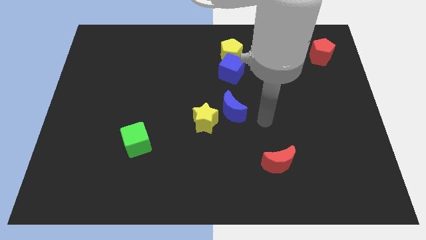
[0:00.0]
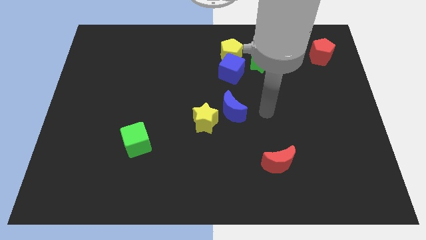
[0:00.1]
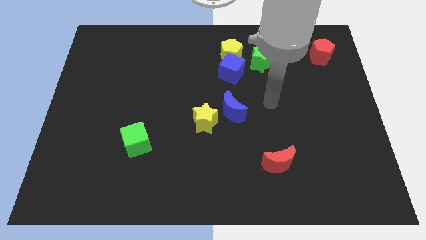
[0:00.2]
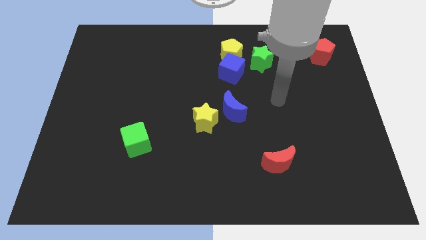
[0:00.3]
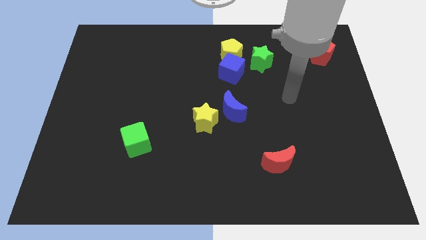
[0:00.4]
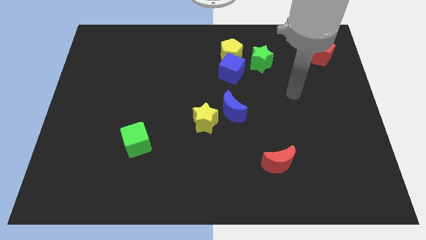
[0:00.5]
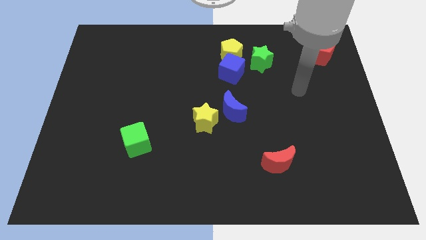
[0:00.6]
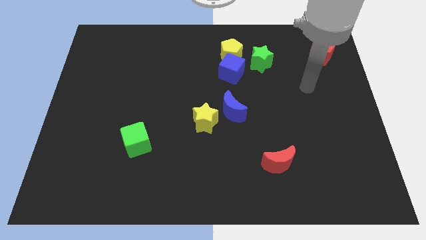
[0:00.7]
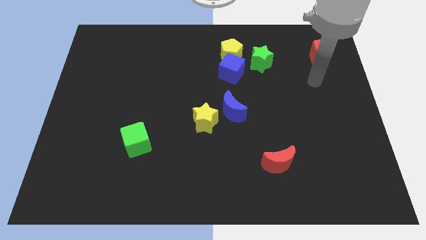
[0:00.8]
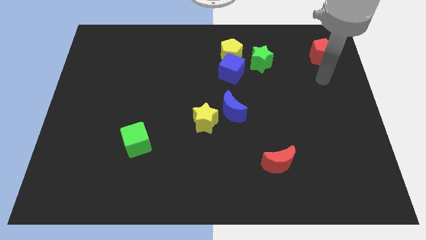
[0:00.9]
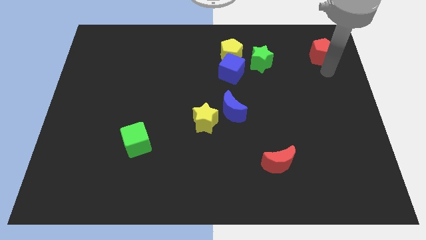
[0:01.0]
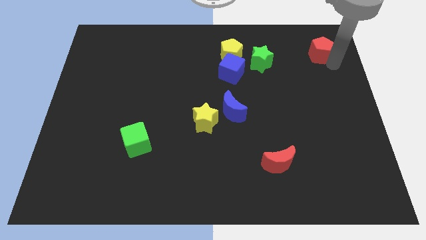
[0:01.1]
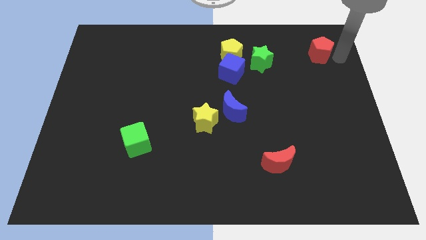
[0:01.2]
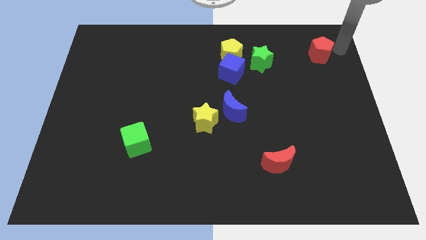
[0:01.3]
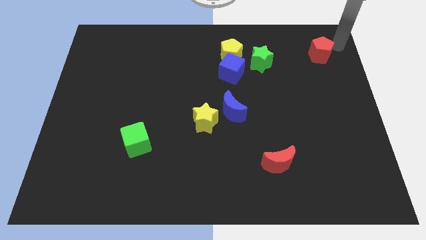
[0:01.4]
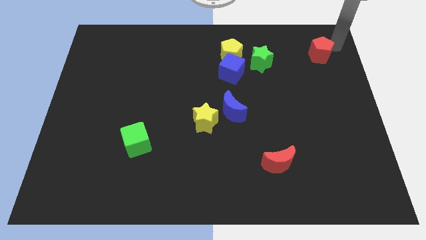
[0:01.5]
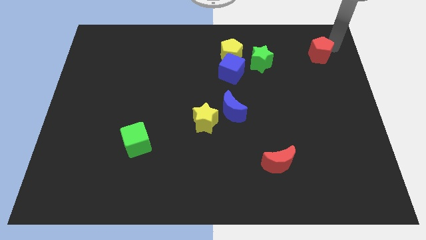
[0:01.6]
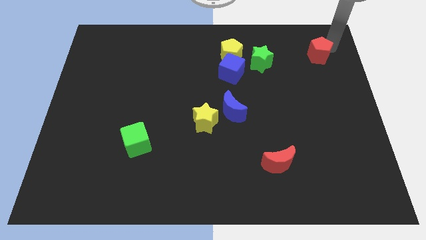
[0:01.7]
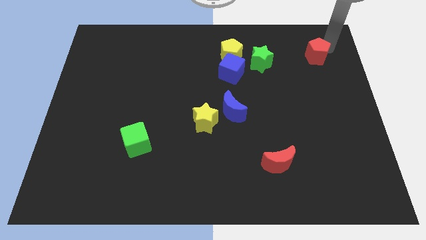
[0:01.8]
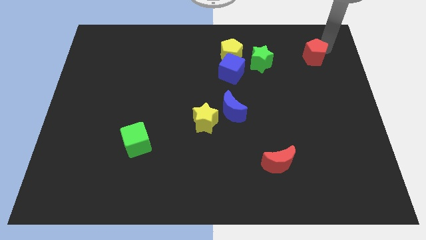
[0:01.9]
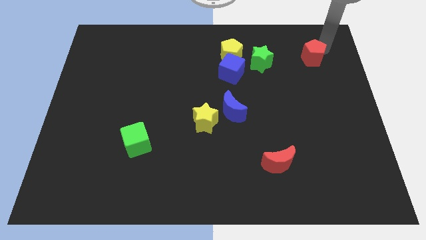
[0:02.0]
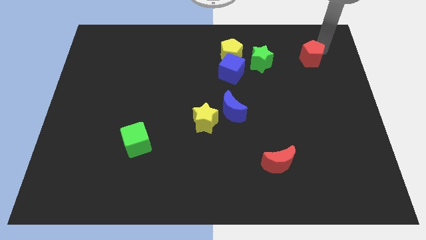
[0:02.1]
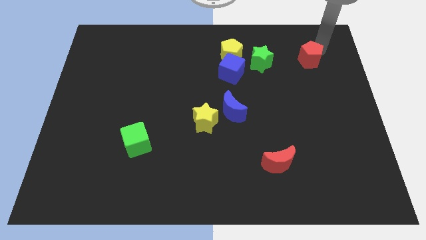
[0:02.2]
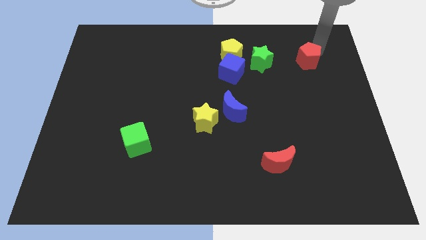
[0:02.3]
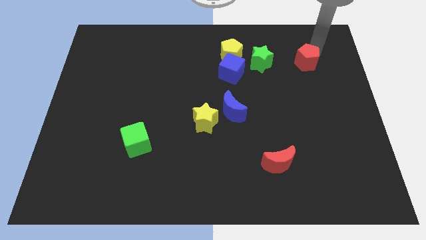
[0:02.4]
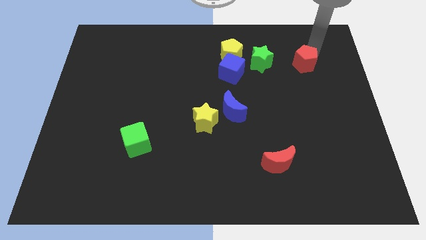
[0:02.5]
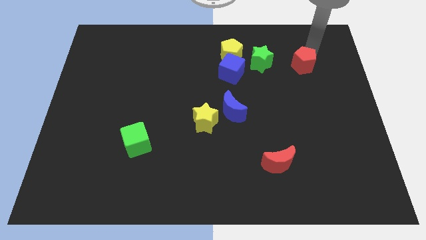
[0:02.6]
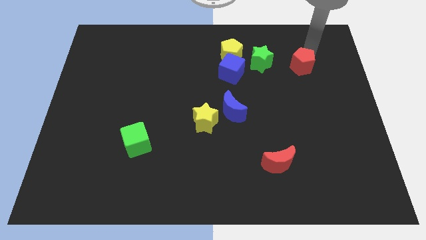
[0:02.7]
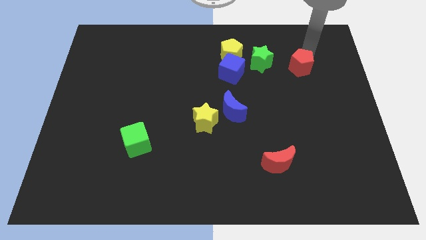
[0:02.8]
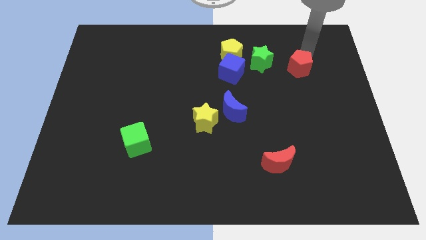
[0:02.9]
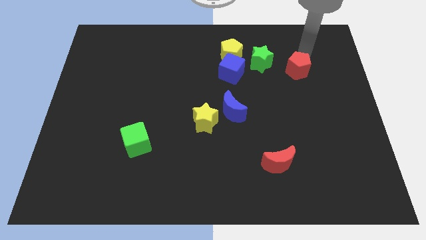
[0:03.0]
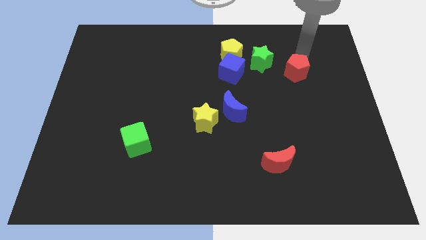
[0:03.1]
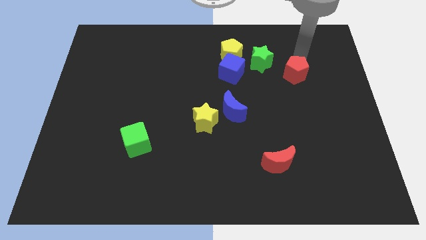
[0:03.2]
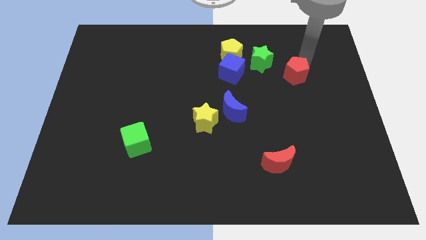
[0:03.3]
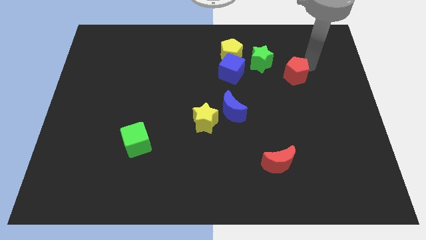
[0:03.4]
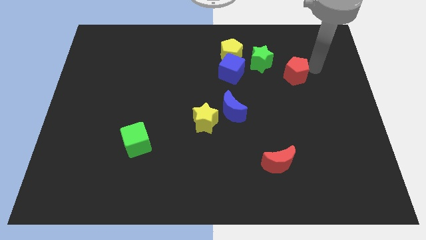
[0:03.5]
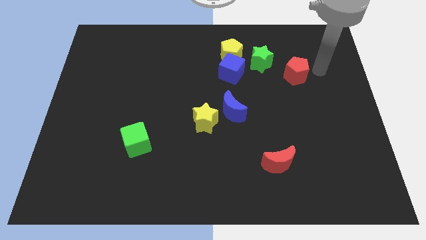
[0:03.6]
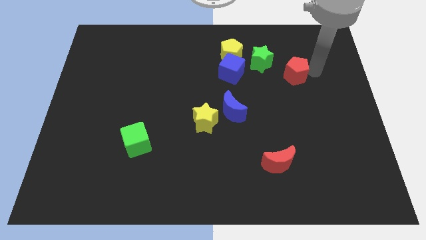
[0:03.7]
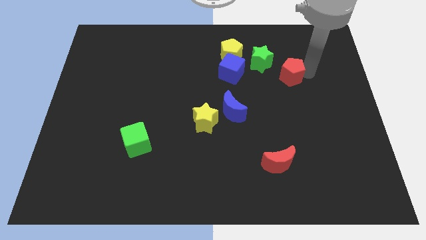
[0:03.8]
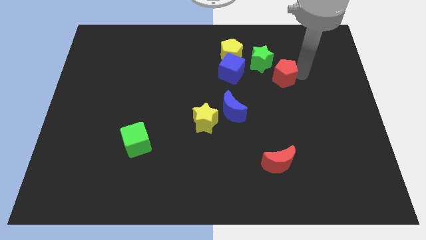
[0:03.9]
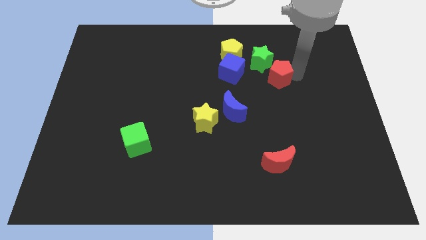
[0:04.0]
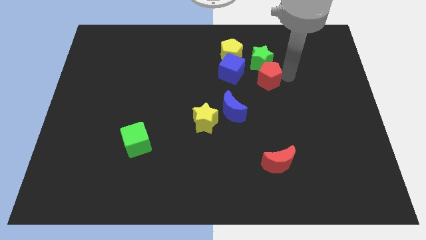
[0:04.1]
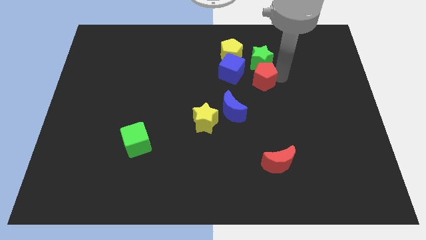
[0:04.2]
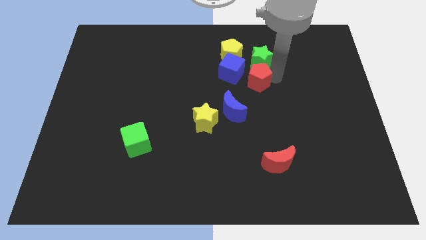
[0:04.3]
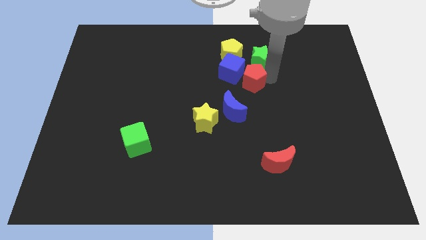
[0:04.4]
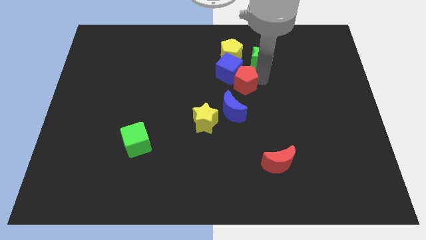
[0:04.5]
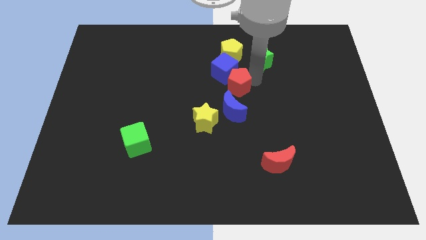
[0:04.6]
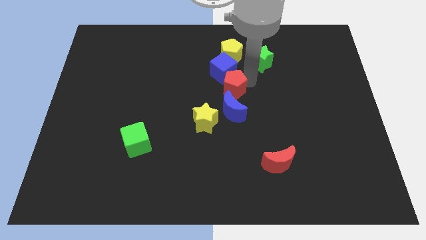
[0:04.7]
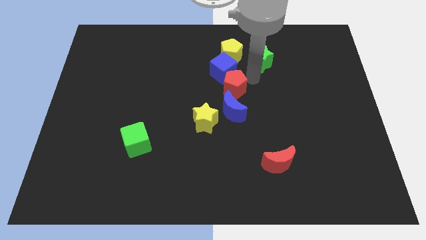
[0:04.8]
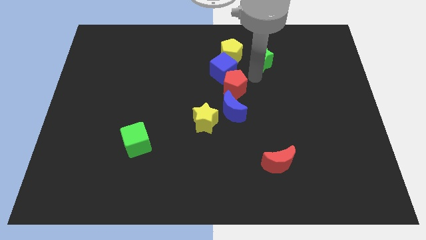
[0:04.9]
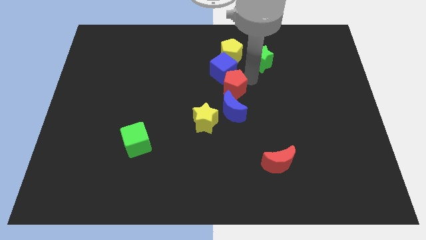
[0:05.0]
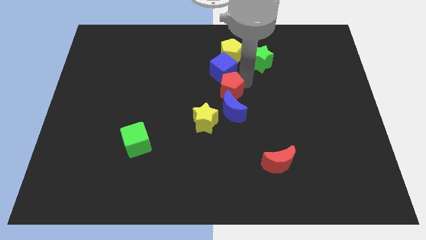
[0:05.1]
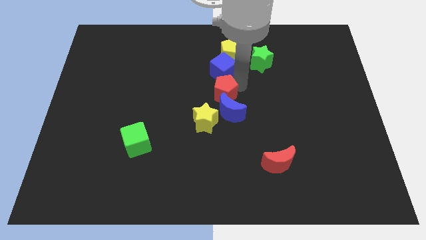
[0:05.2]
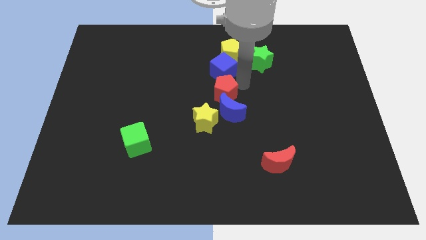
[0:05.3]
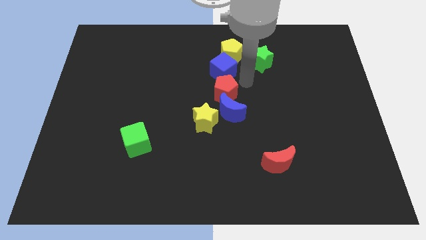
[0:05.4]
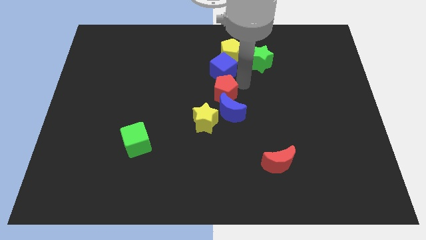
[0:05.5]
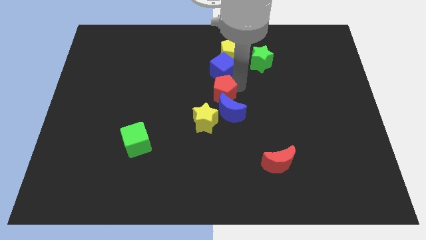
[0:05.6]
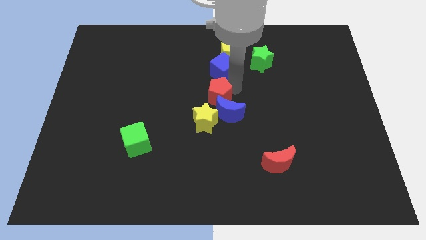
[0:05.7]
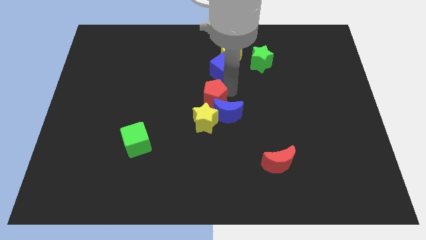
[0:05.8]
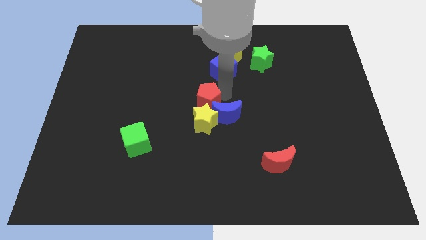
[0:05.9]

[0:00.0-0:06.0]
slide the red pentagon to the top left side of the yellow star

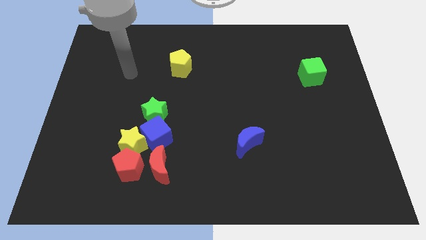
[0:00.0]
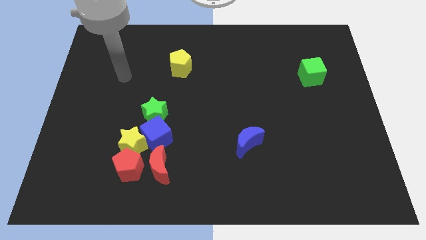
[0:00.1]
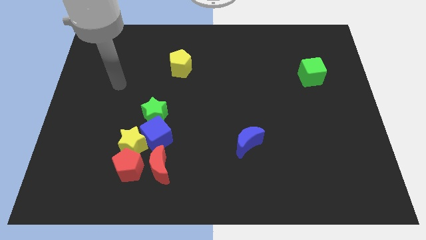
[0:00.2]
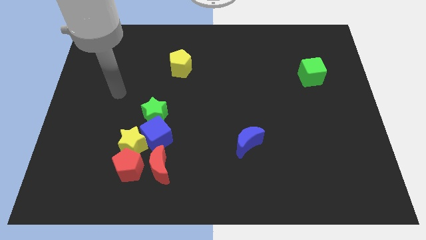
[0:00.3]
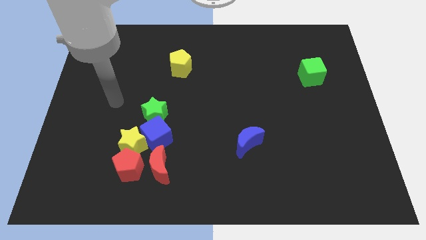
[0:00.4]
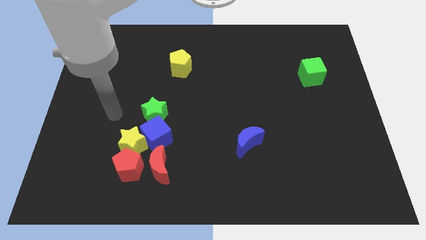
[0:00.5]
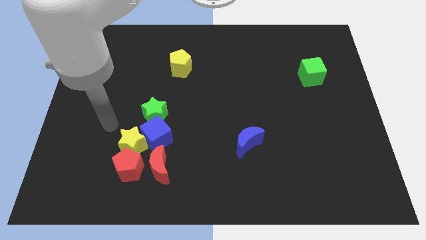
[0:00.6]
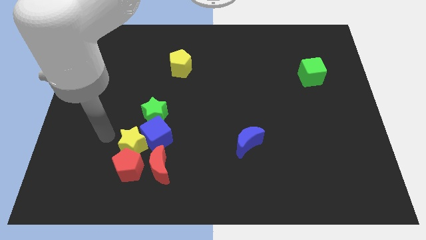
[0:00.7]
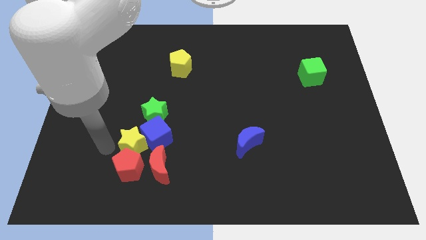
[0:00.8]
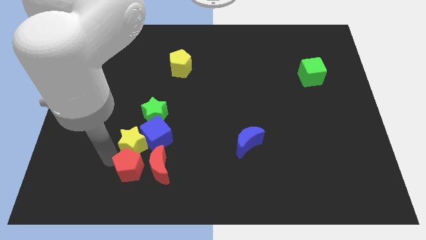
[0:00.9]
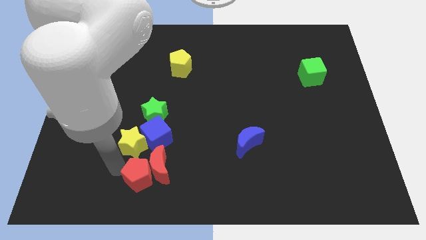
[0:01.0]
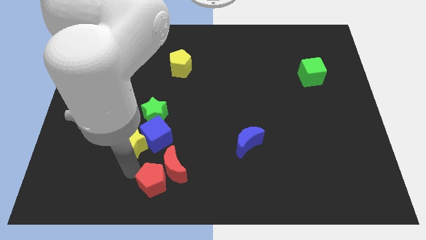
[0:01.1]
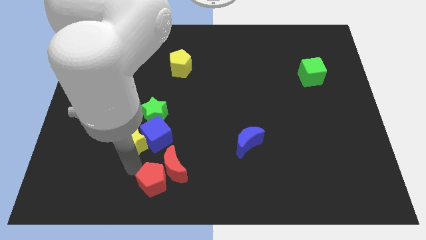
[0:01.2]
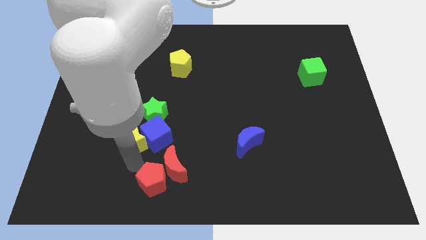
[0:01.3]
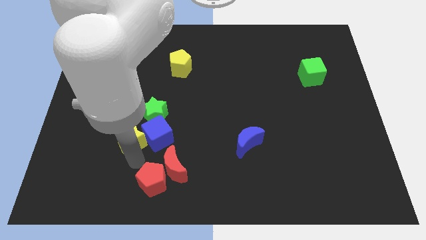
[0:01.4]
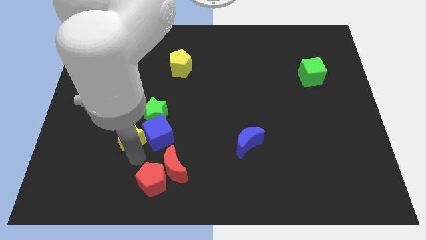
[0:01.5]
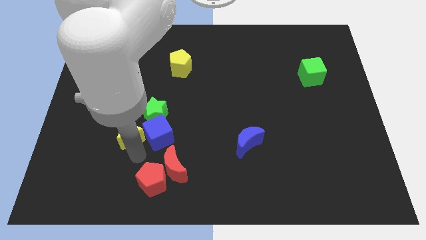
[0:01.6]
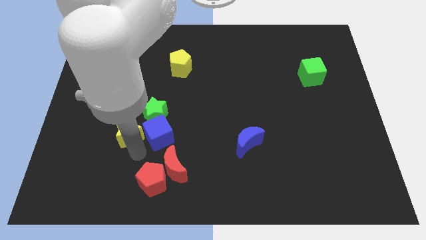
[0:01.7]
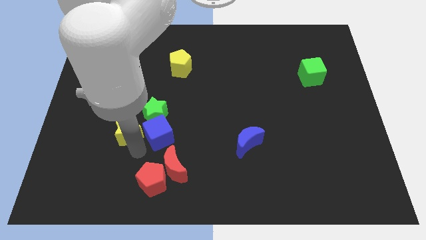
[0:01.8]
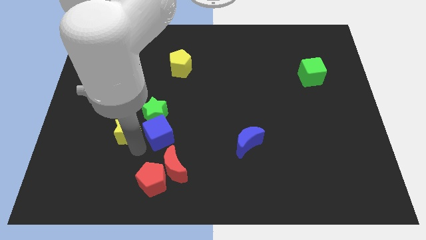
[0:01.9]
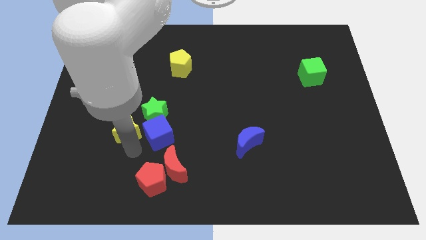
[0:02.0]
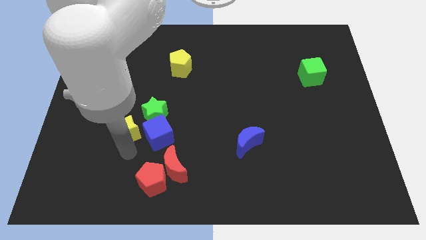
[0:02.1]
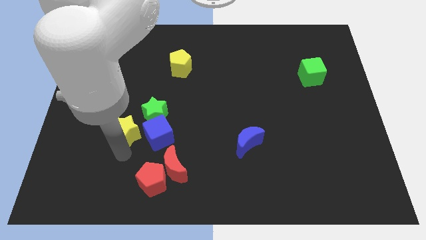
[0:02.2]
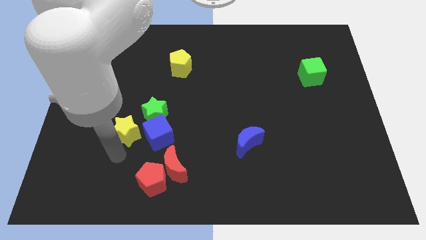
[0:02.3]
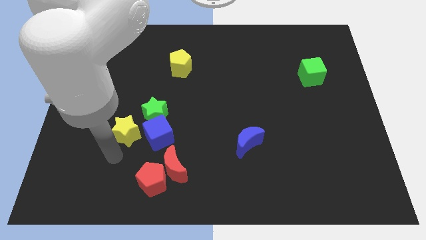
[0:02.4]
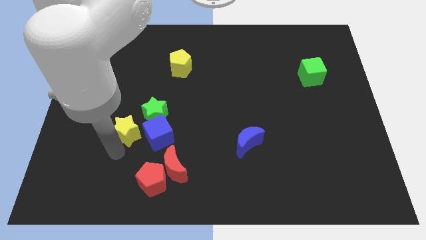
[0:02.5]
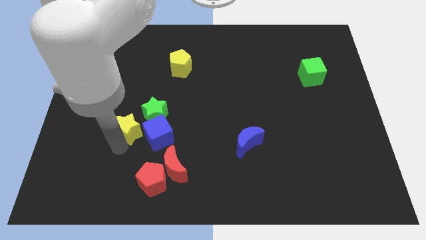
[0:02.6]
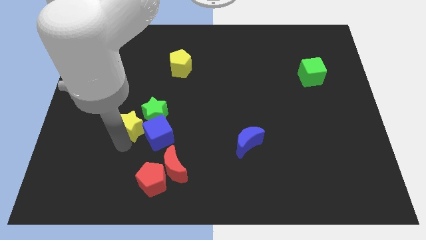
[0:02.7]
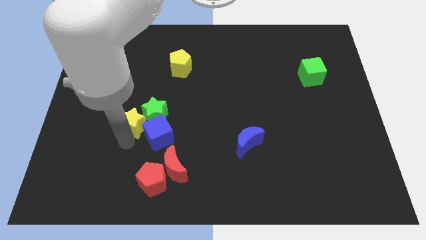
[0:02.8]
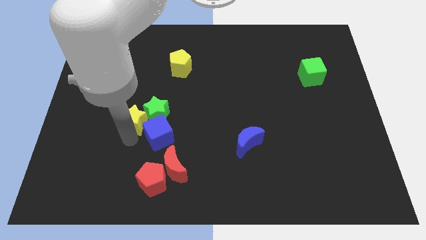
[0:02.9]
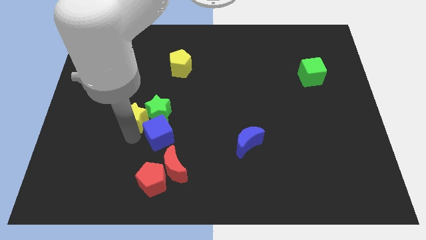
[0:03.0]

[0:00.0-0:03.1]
put the yellow star to the top left side of the green star
